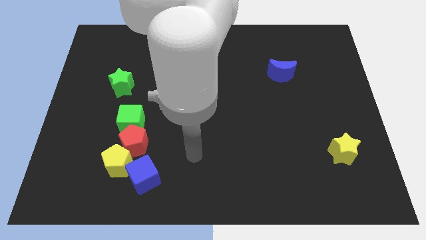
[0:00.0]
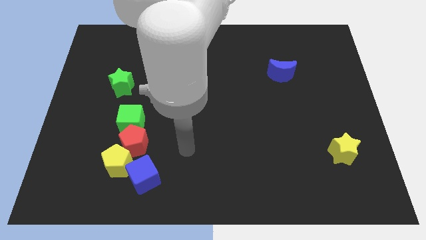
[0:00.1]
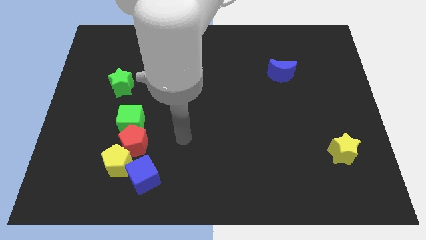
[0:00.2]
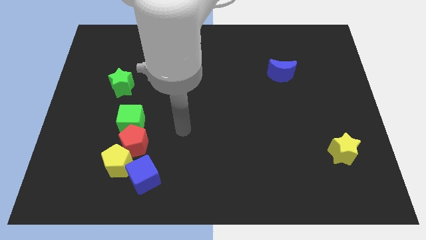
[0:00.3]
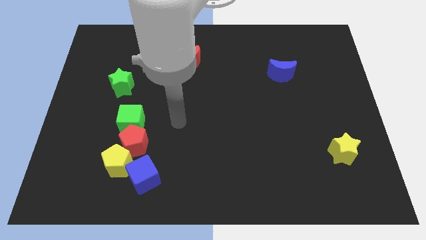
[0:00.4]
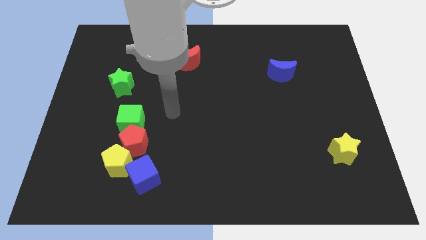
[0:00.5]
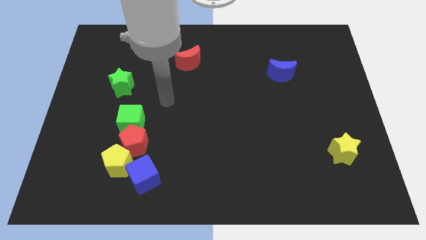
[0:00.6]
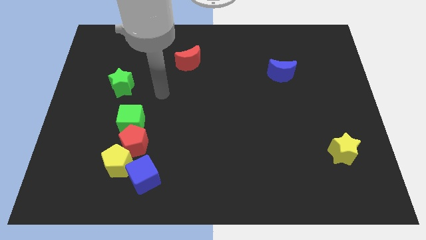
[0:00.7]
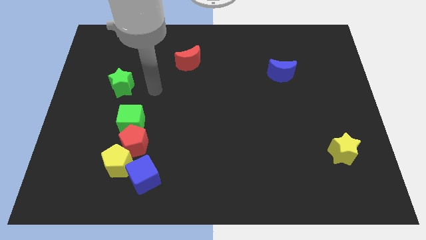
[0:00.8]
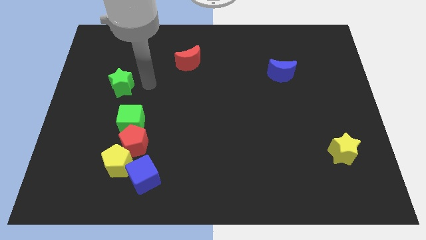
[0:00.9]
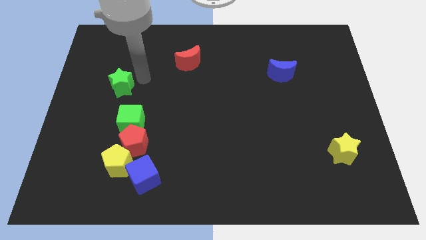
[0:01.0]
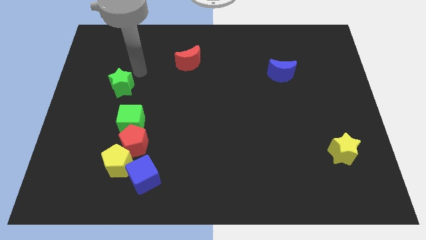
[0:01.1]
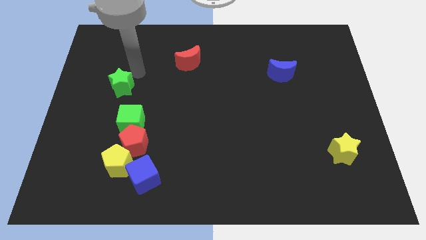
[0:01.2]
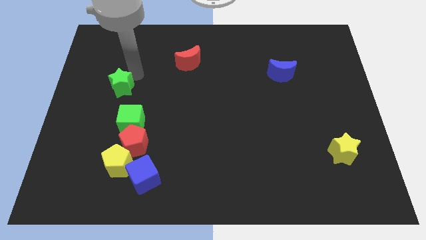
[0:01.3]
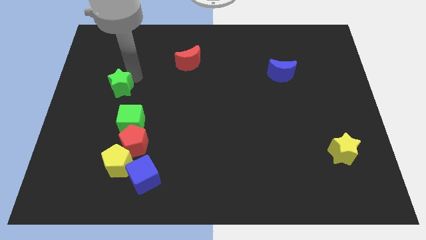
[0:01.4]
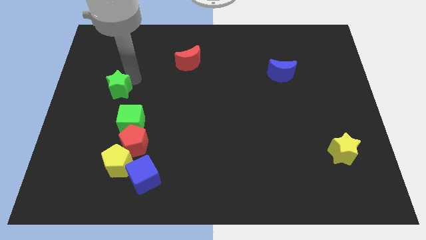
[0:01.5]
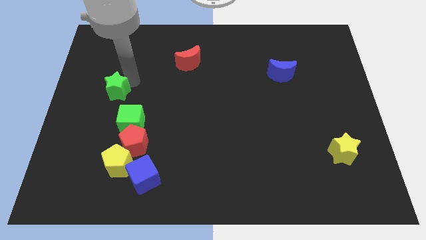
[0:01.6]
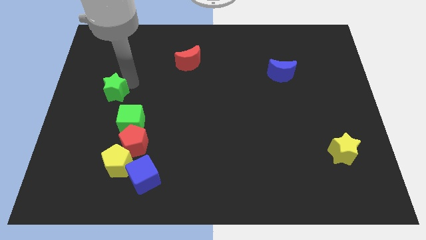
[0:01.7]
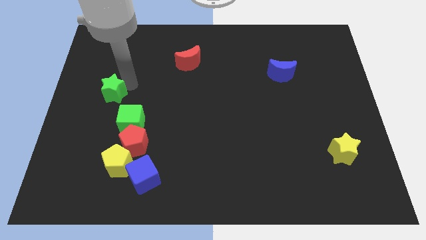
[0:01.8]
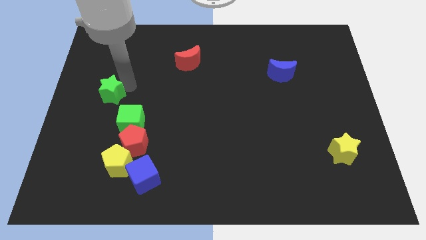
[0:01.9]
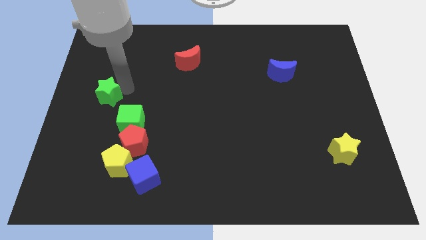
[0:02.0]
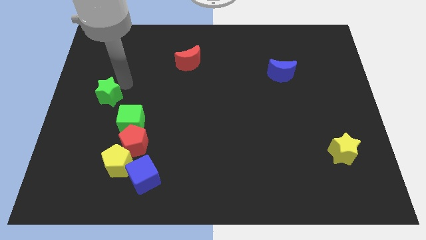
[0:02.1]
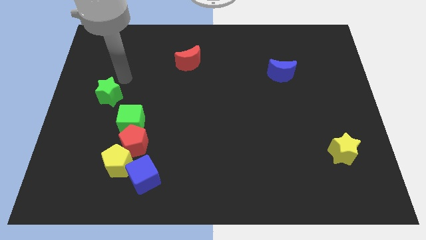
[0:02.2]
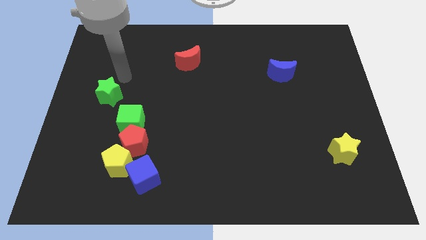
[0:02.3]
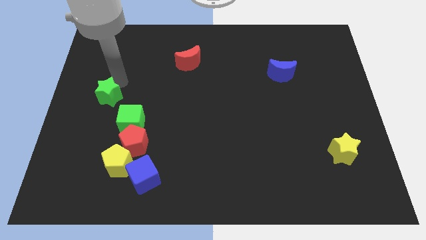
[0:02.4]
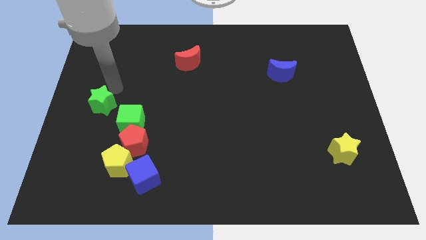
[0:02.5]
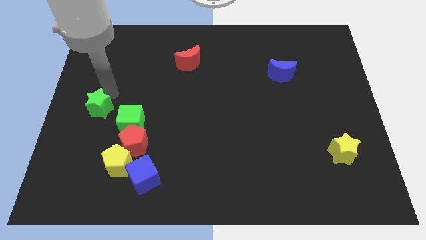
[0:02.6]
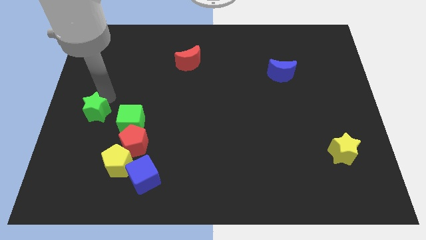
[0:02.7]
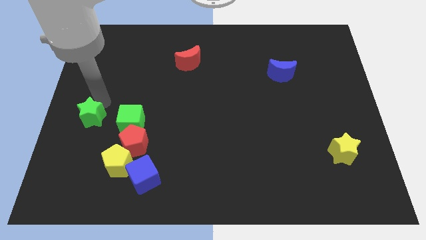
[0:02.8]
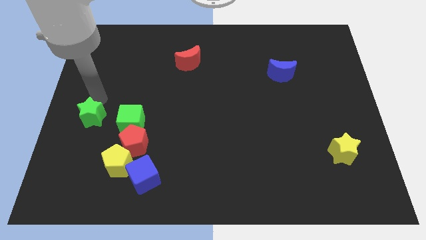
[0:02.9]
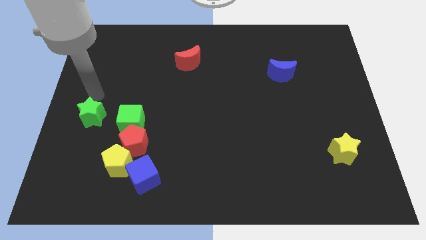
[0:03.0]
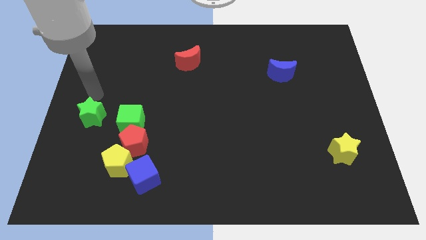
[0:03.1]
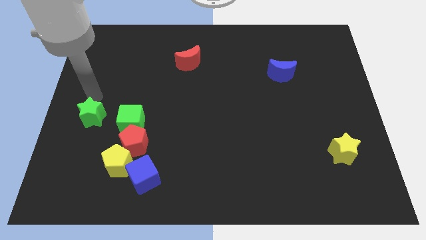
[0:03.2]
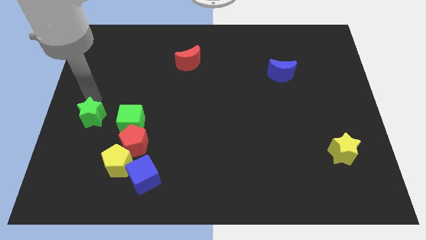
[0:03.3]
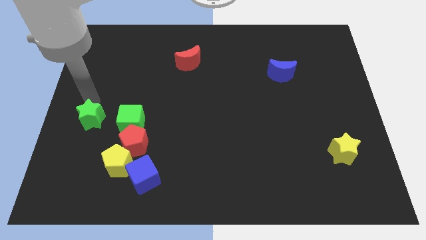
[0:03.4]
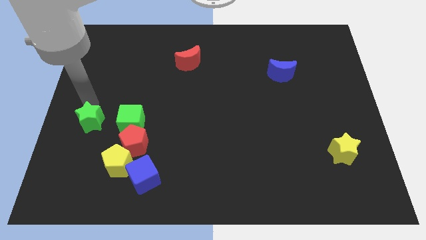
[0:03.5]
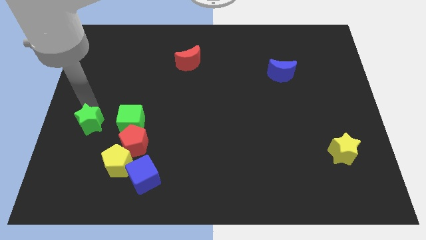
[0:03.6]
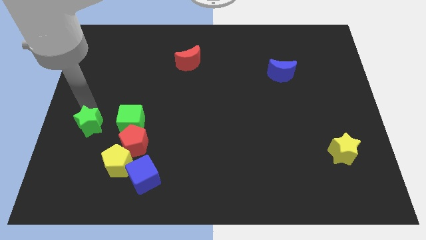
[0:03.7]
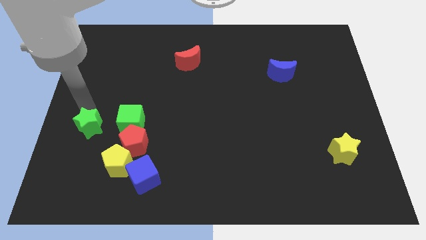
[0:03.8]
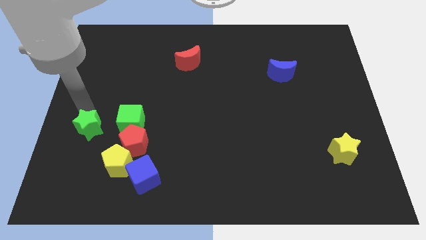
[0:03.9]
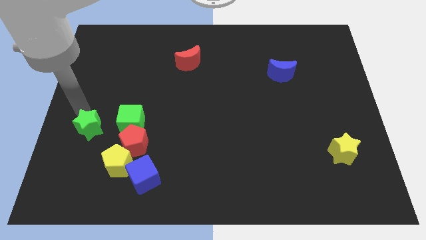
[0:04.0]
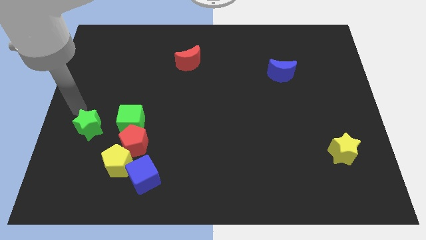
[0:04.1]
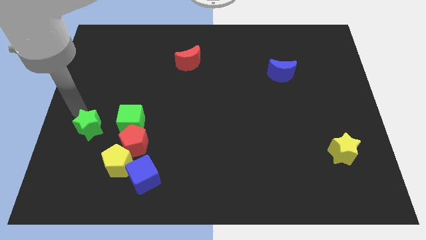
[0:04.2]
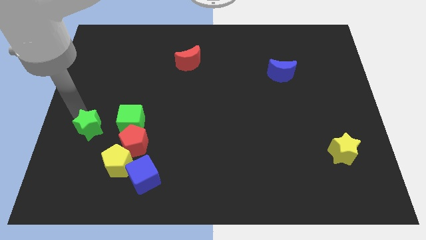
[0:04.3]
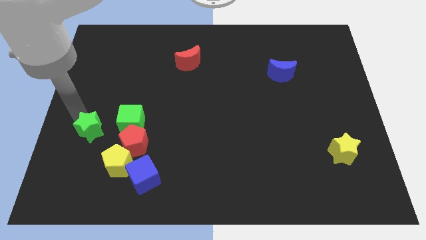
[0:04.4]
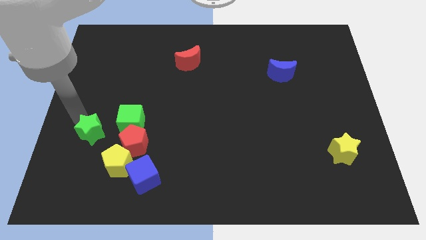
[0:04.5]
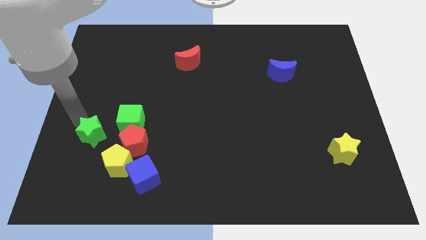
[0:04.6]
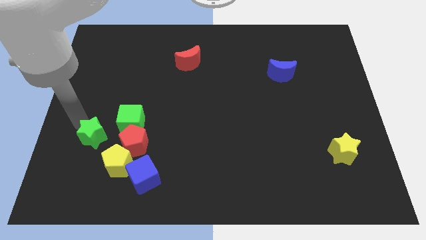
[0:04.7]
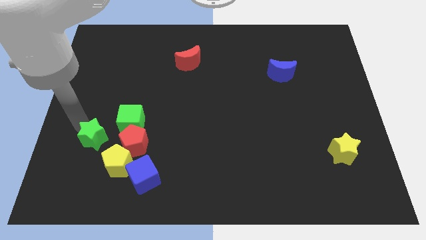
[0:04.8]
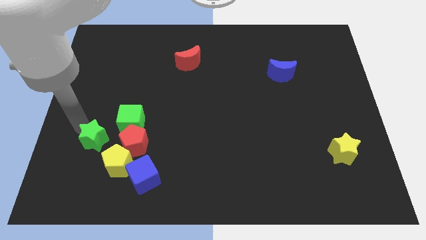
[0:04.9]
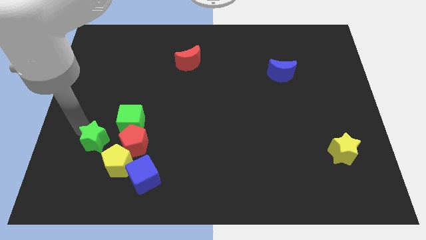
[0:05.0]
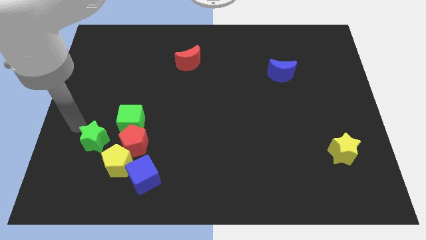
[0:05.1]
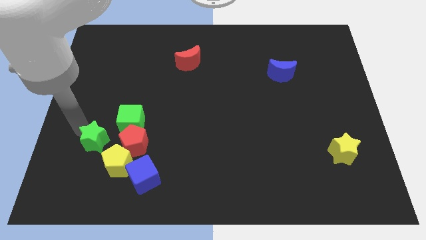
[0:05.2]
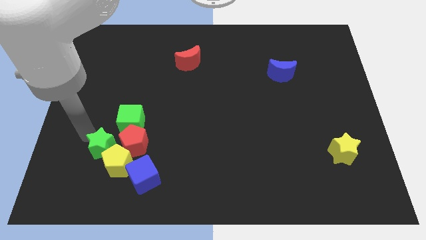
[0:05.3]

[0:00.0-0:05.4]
move the green star close to the yellow pentagon

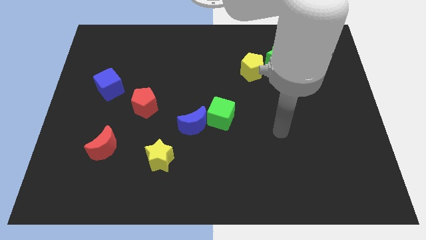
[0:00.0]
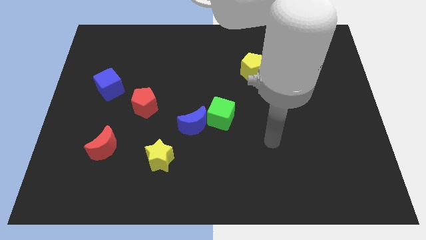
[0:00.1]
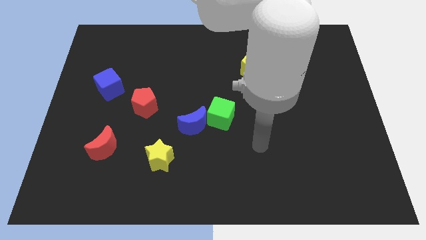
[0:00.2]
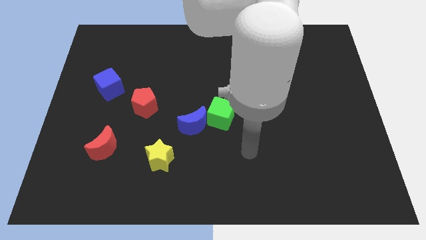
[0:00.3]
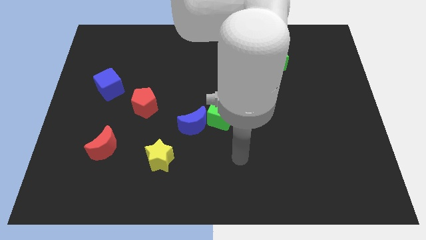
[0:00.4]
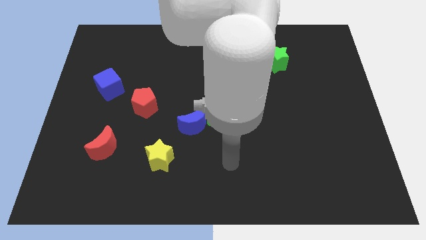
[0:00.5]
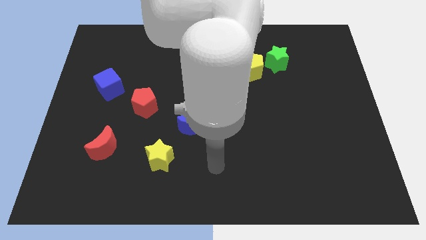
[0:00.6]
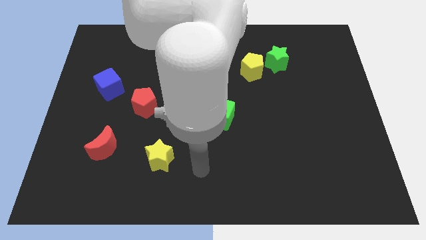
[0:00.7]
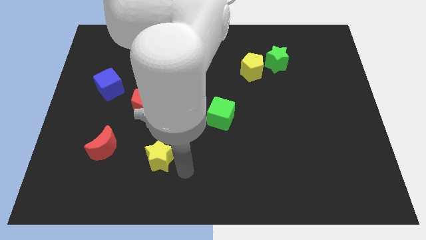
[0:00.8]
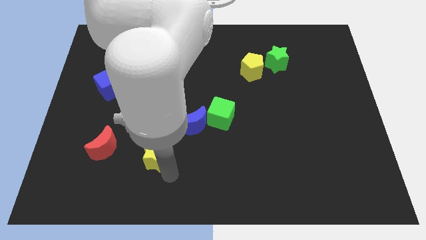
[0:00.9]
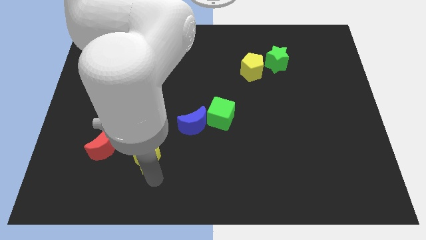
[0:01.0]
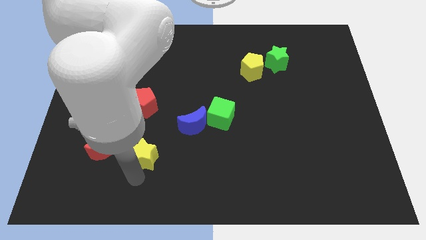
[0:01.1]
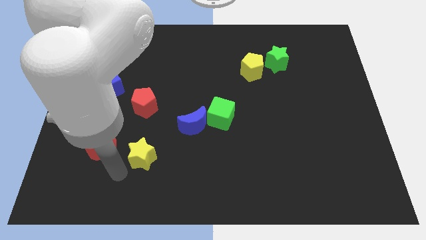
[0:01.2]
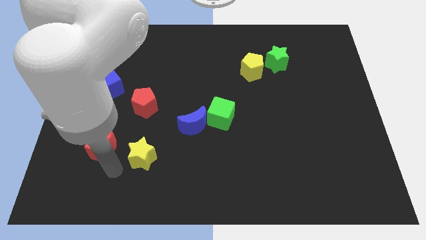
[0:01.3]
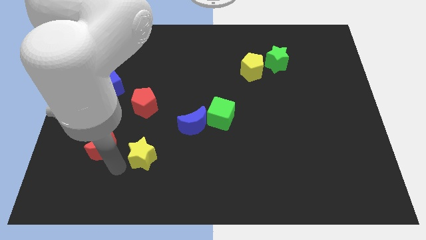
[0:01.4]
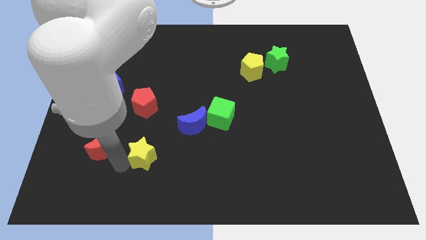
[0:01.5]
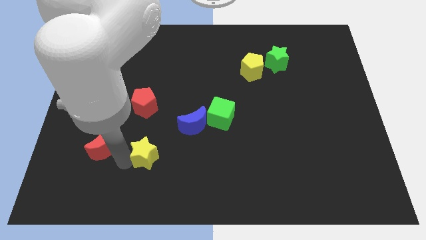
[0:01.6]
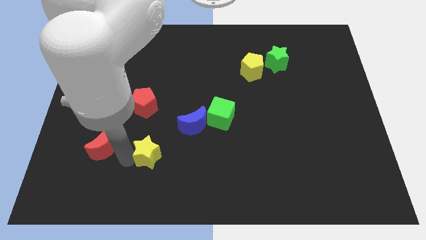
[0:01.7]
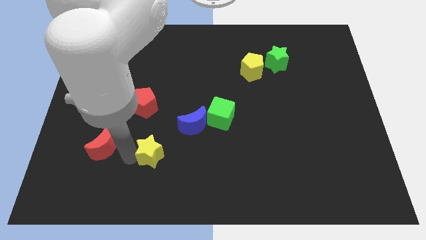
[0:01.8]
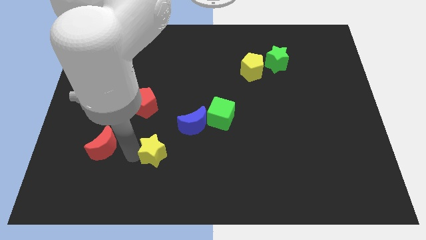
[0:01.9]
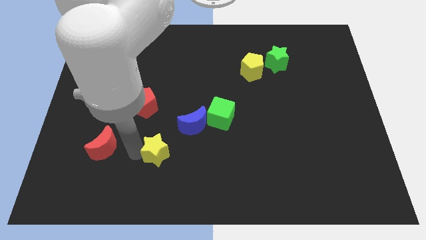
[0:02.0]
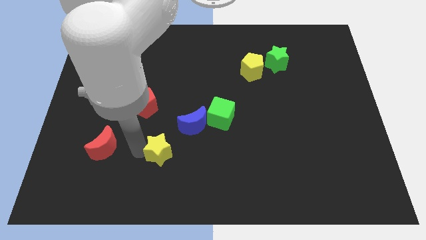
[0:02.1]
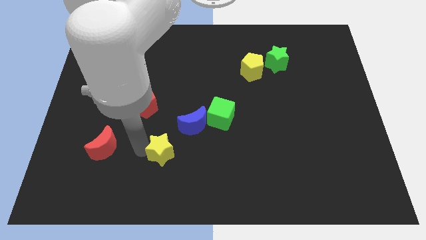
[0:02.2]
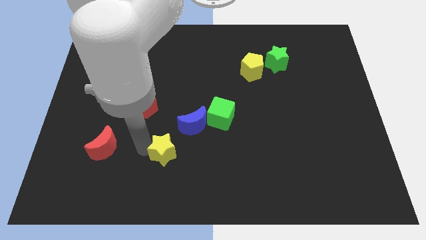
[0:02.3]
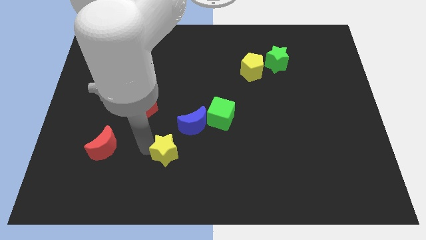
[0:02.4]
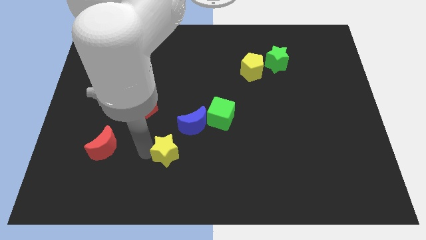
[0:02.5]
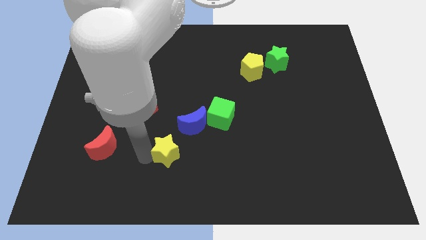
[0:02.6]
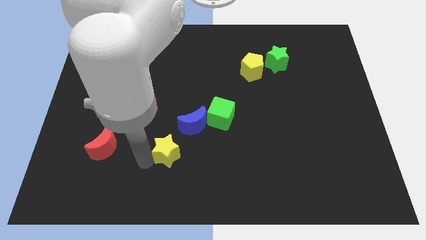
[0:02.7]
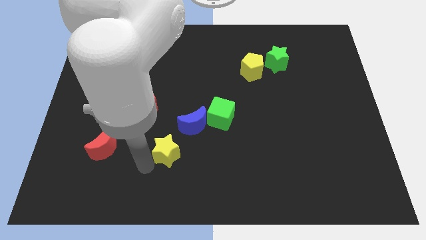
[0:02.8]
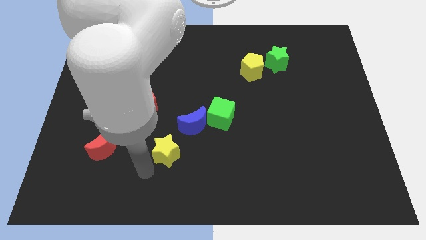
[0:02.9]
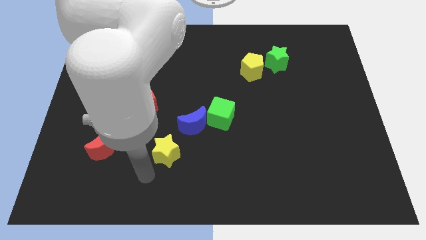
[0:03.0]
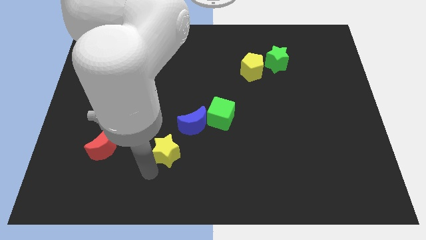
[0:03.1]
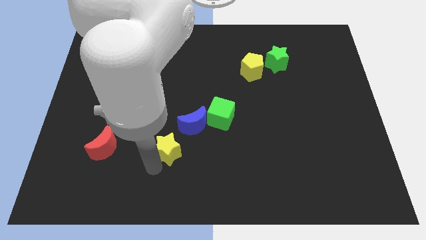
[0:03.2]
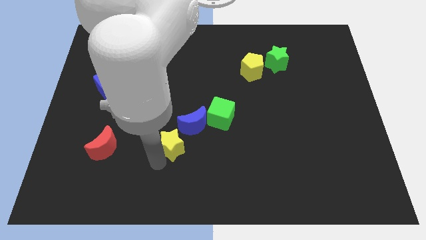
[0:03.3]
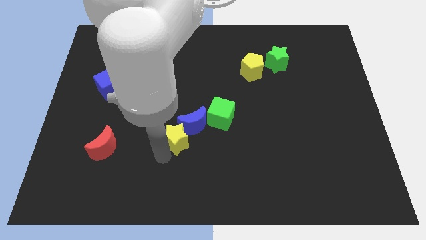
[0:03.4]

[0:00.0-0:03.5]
move the yellow star to the blue moon
